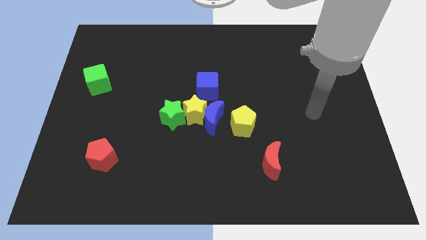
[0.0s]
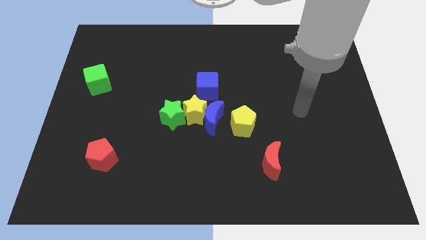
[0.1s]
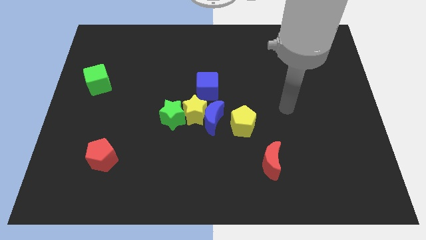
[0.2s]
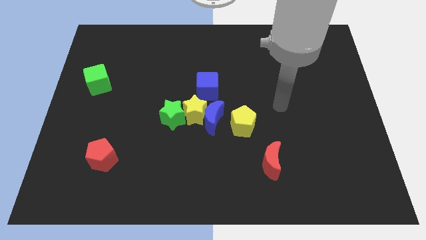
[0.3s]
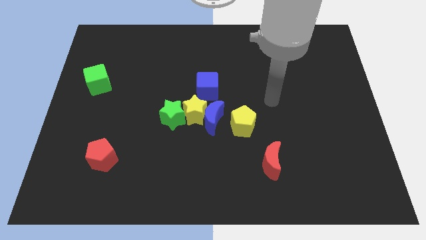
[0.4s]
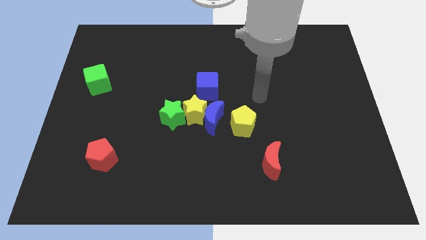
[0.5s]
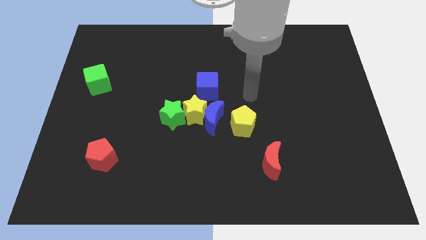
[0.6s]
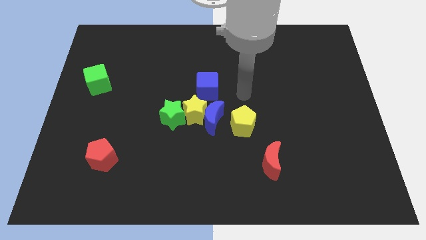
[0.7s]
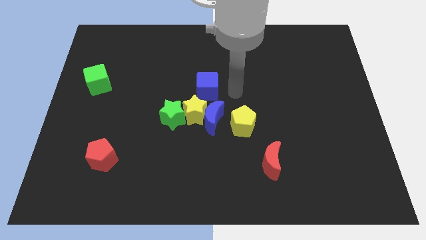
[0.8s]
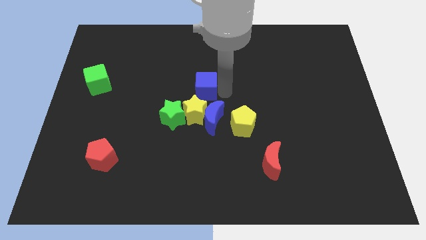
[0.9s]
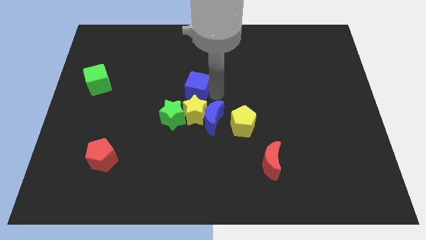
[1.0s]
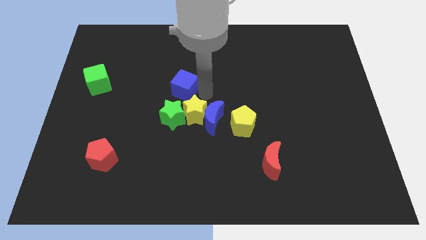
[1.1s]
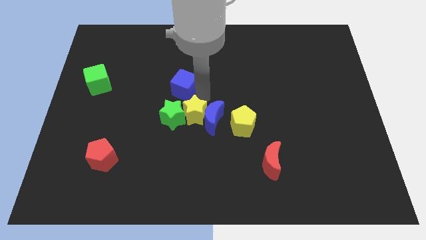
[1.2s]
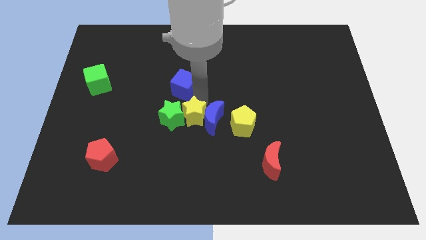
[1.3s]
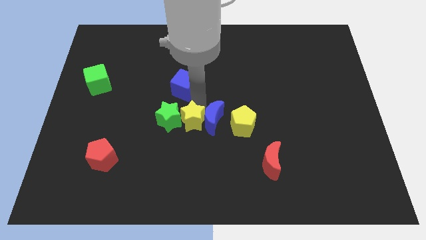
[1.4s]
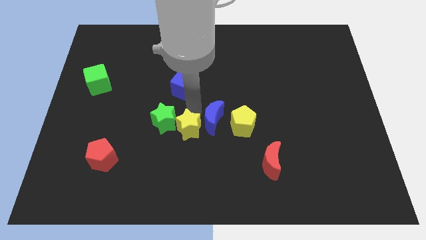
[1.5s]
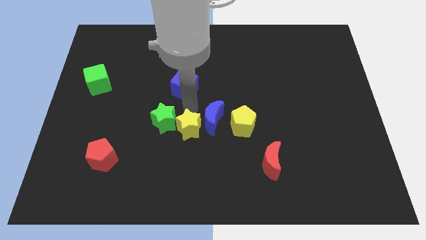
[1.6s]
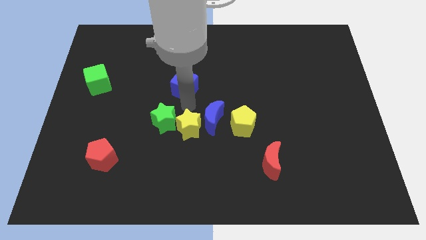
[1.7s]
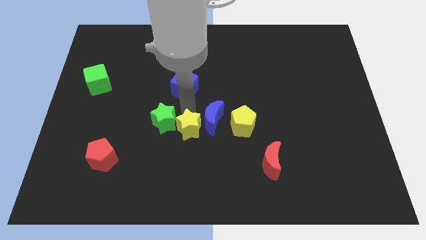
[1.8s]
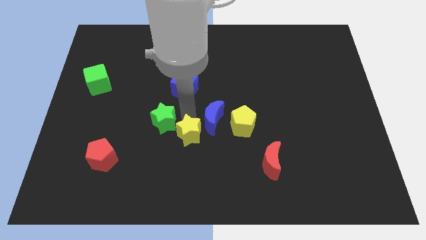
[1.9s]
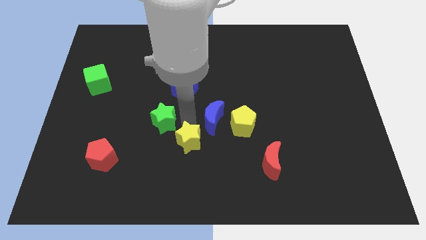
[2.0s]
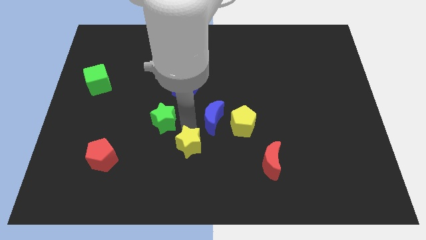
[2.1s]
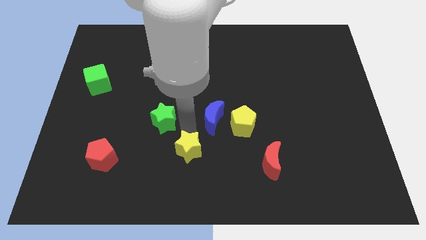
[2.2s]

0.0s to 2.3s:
separate the yellow star from the clump

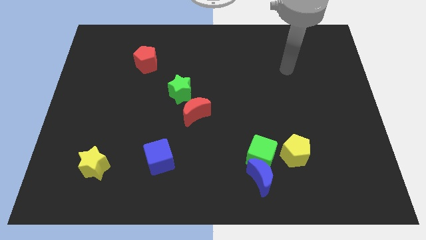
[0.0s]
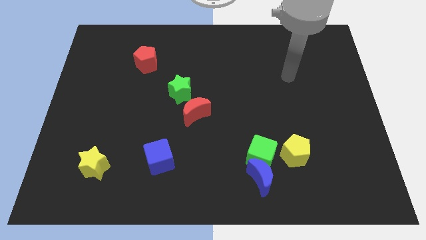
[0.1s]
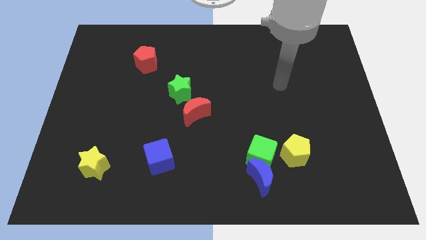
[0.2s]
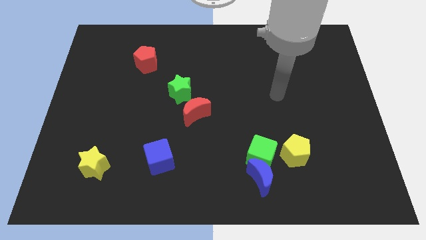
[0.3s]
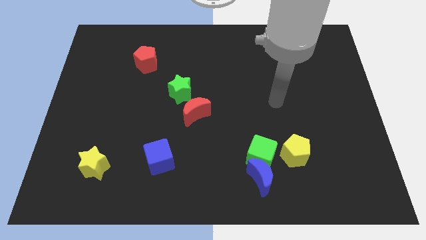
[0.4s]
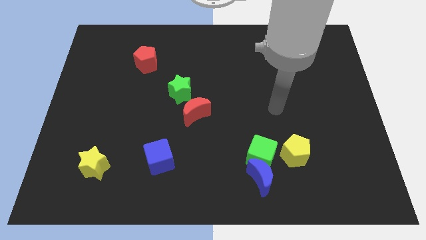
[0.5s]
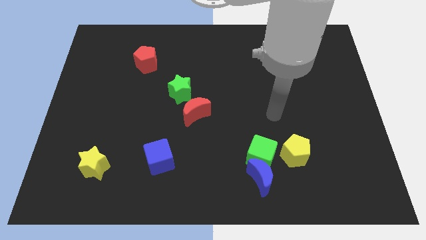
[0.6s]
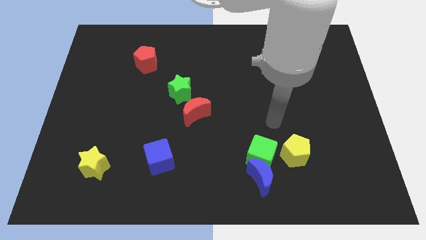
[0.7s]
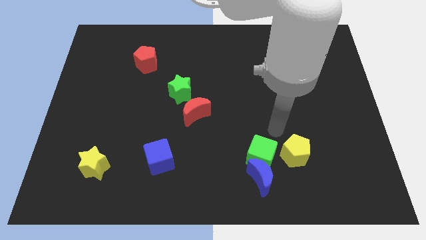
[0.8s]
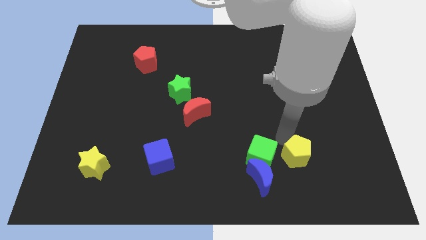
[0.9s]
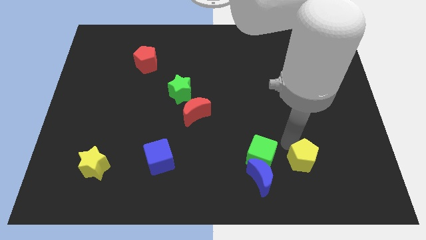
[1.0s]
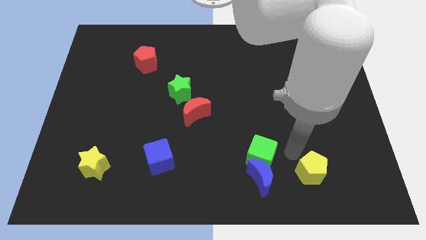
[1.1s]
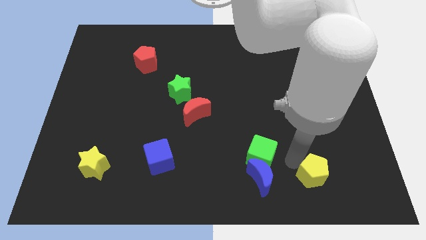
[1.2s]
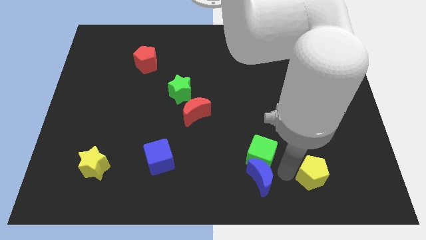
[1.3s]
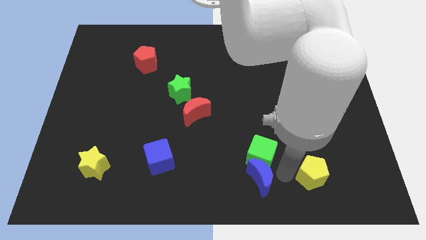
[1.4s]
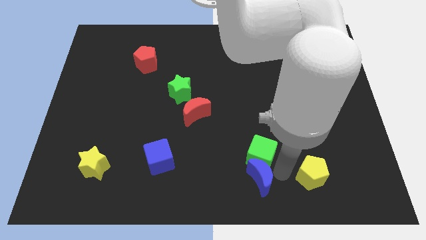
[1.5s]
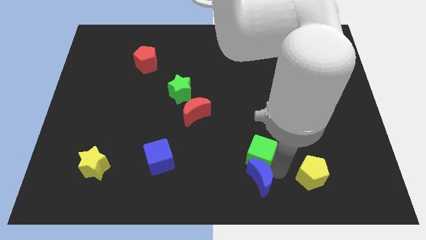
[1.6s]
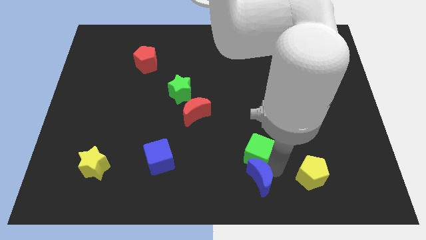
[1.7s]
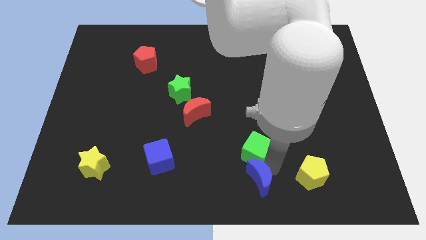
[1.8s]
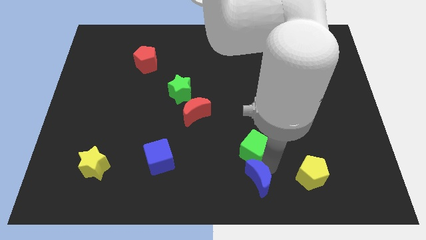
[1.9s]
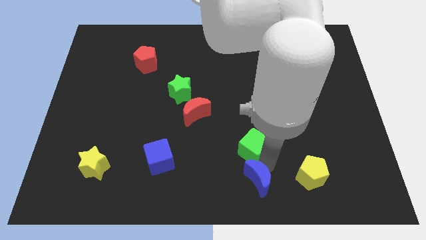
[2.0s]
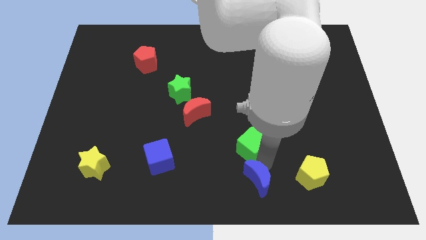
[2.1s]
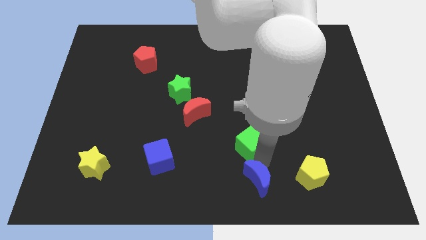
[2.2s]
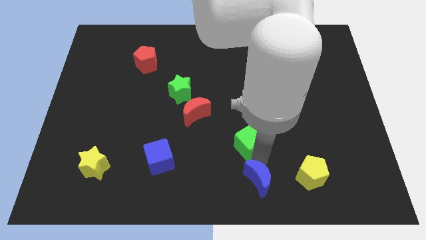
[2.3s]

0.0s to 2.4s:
move the green cube away from the blue moon and yellow pentagon

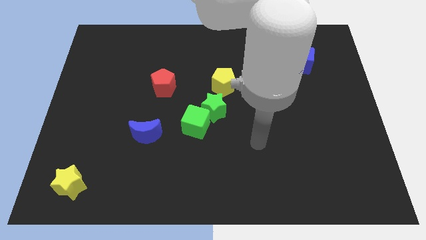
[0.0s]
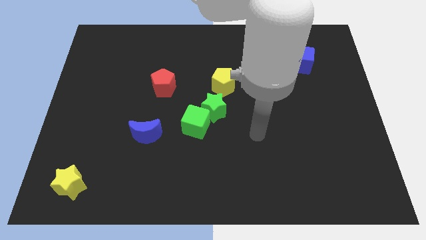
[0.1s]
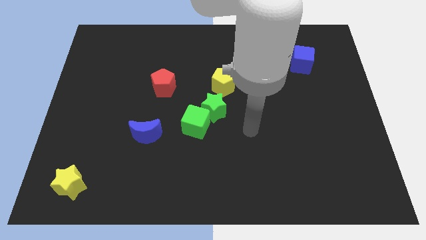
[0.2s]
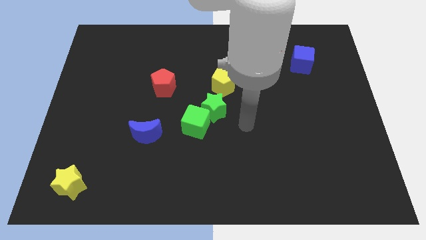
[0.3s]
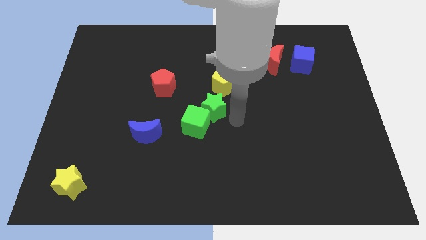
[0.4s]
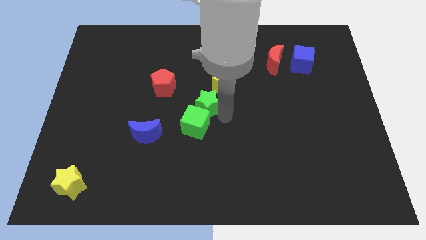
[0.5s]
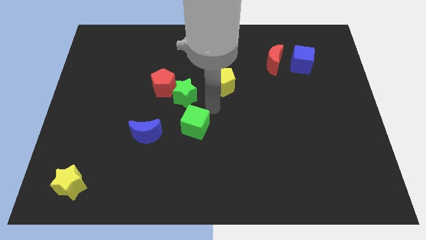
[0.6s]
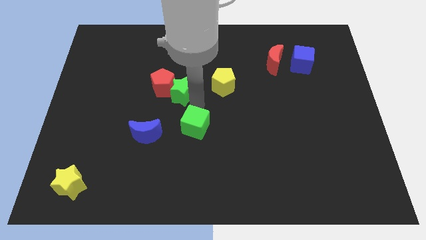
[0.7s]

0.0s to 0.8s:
move the green cube away from the green star

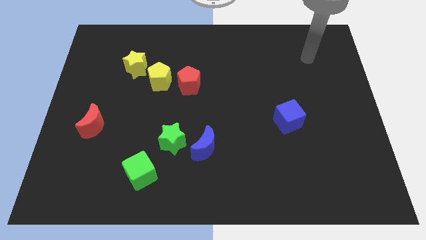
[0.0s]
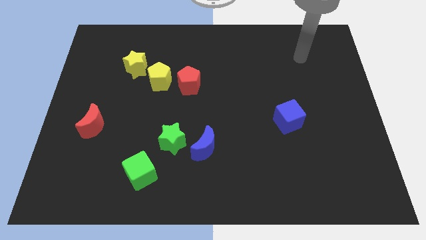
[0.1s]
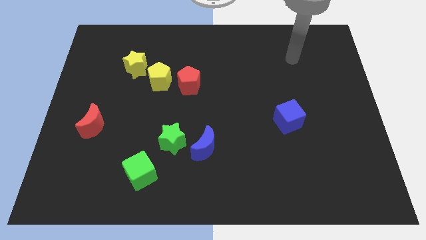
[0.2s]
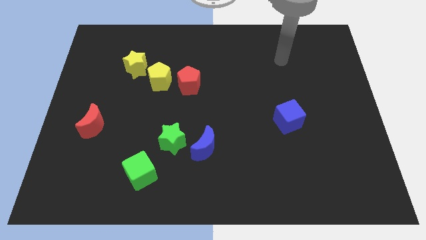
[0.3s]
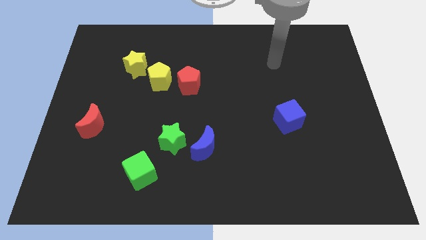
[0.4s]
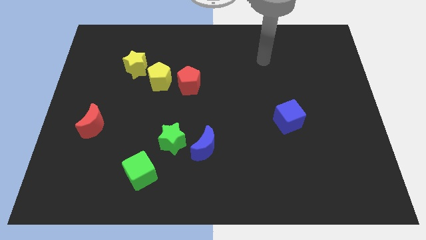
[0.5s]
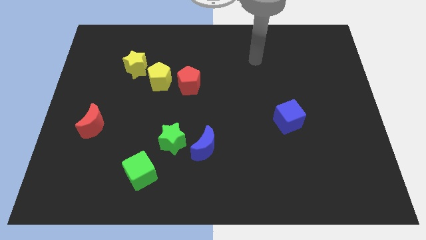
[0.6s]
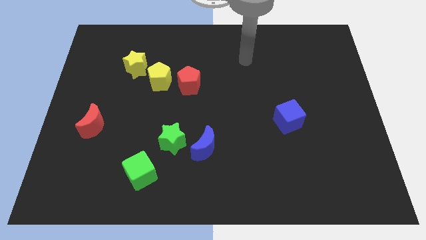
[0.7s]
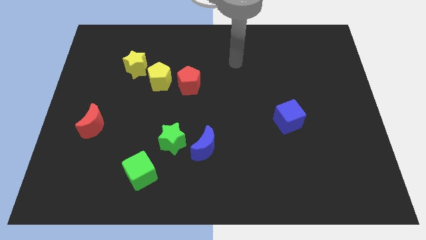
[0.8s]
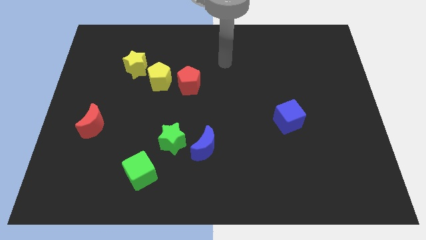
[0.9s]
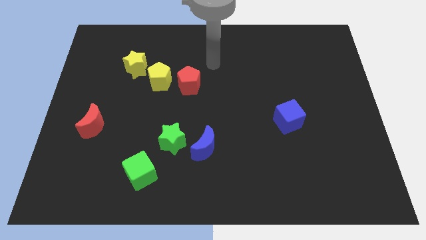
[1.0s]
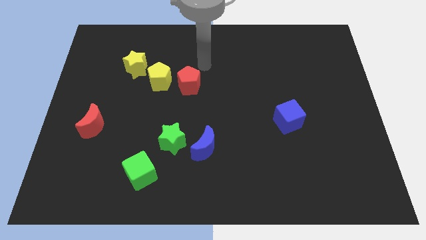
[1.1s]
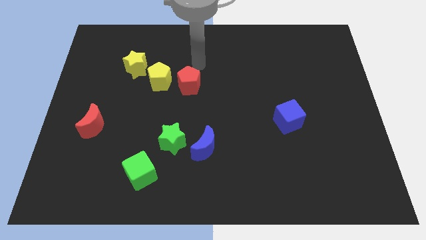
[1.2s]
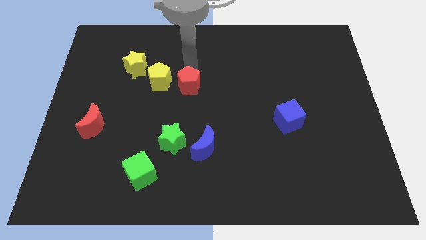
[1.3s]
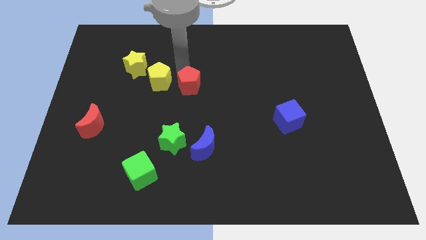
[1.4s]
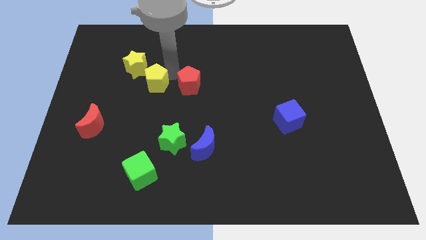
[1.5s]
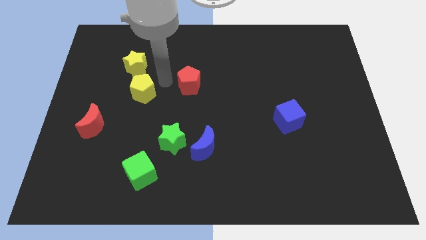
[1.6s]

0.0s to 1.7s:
separate the red pentagon from the yellow pentagon

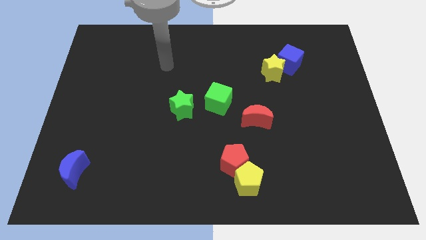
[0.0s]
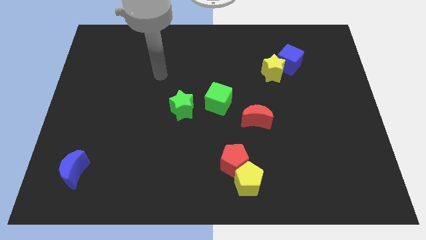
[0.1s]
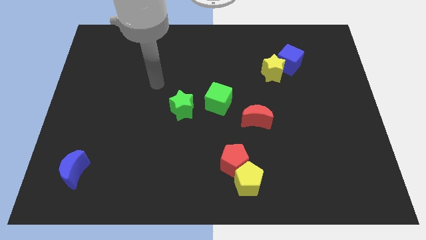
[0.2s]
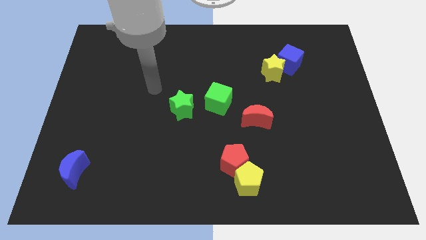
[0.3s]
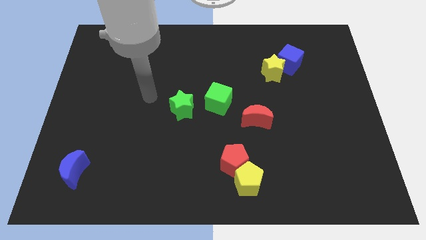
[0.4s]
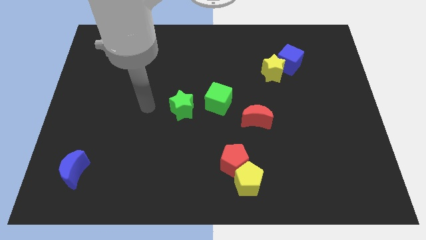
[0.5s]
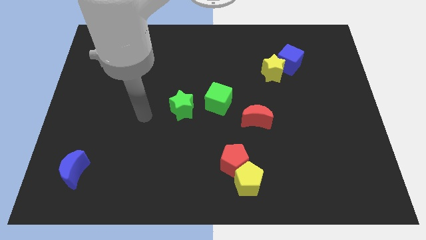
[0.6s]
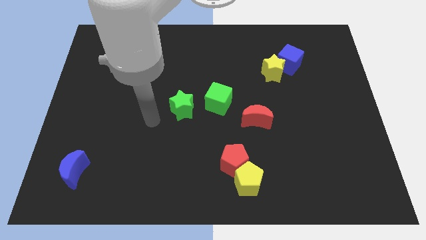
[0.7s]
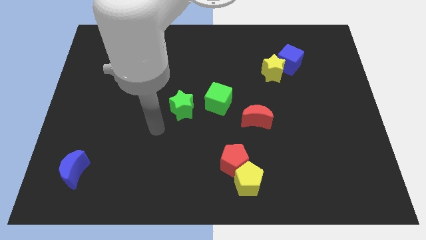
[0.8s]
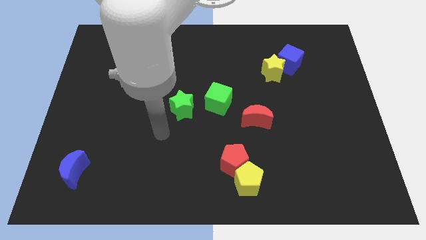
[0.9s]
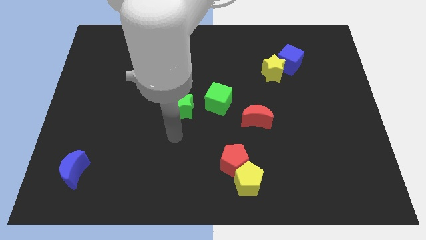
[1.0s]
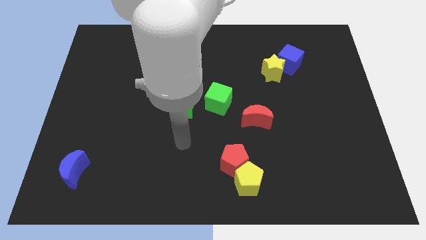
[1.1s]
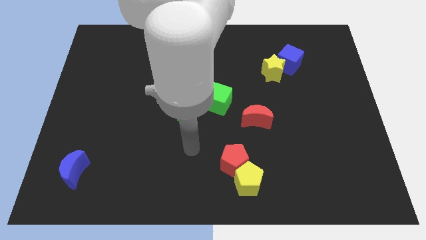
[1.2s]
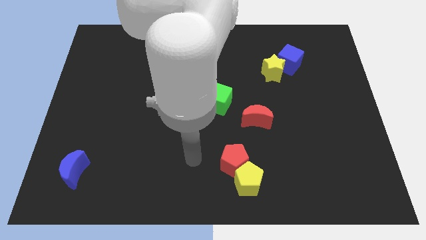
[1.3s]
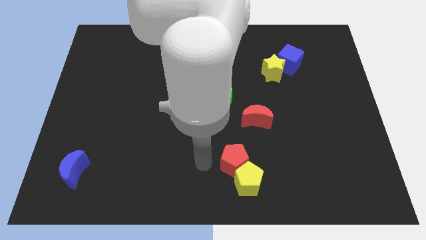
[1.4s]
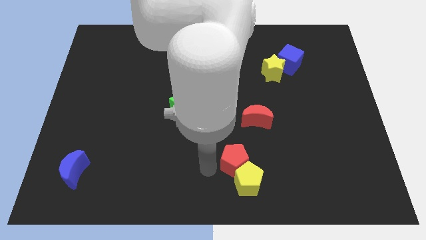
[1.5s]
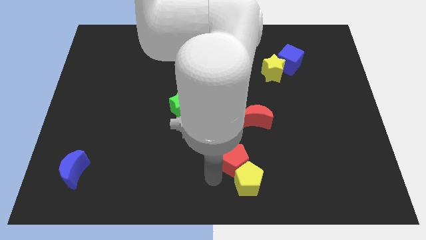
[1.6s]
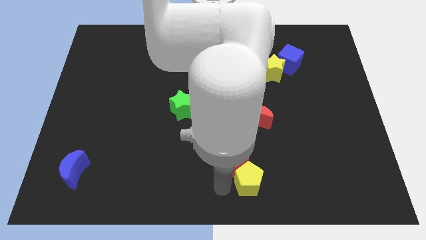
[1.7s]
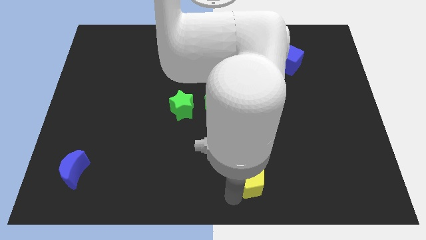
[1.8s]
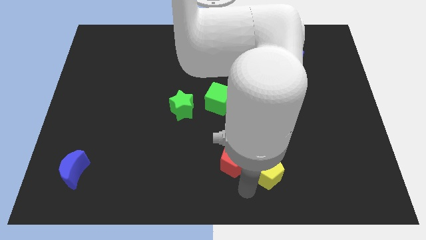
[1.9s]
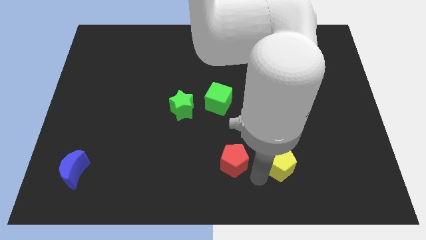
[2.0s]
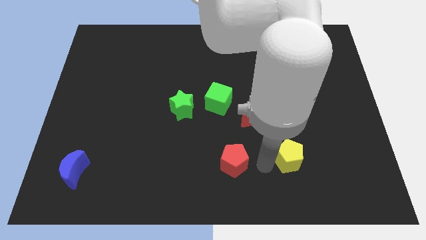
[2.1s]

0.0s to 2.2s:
move the red pentagon away from the yellow pentagon

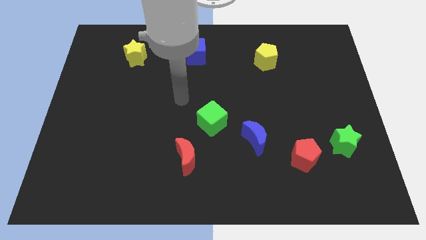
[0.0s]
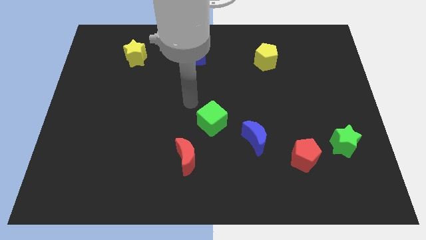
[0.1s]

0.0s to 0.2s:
move the red pentagon away from the green star
